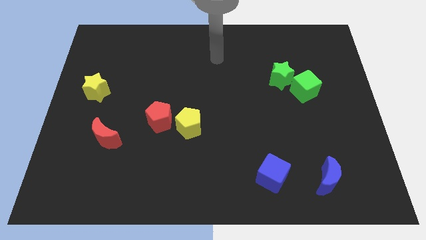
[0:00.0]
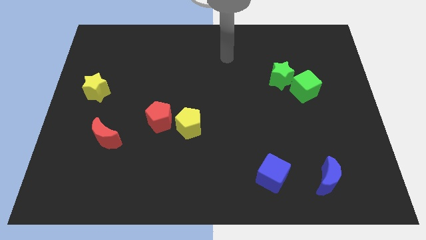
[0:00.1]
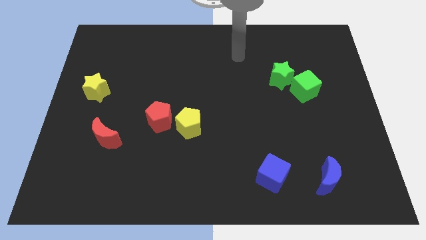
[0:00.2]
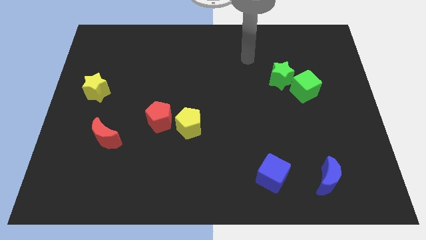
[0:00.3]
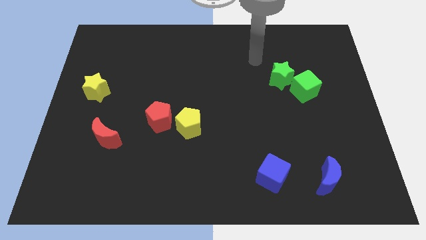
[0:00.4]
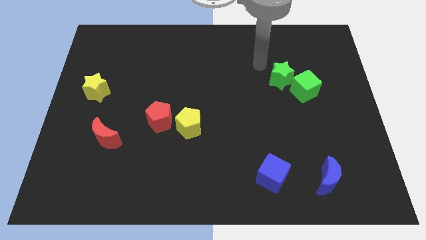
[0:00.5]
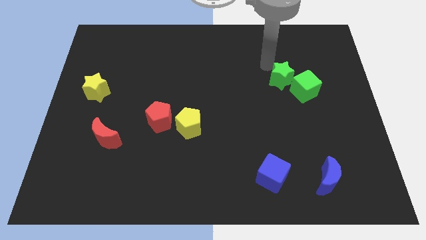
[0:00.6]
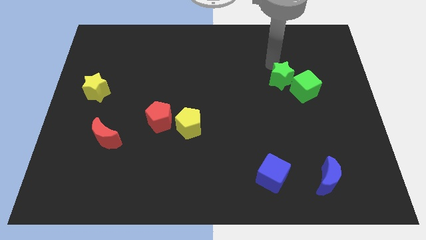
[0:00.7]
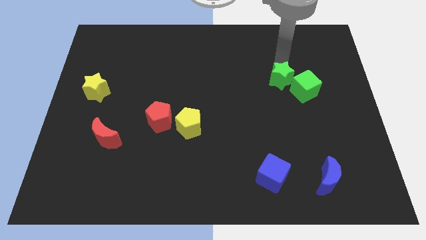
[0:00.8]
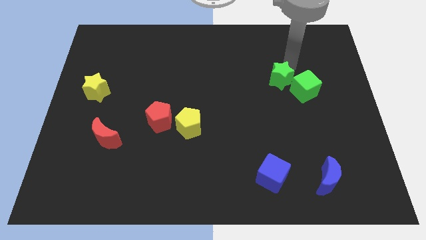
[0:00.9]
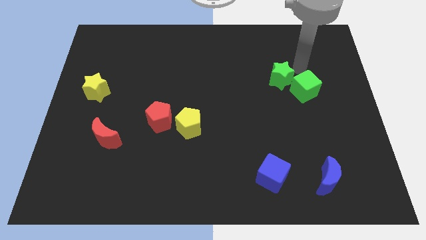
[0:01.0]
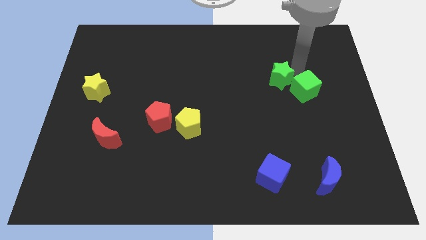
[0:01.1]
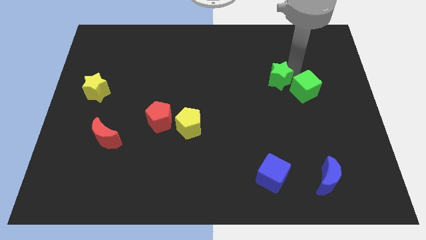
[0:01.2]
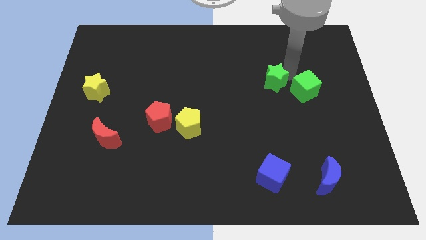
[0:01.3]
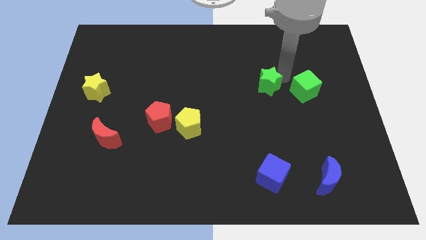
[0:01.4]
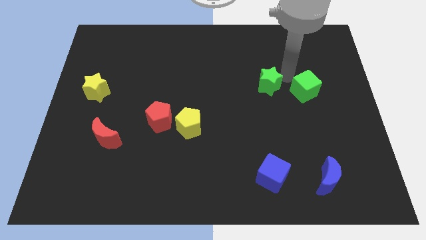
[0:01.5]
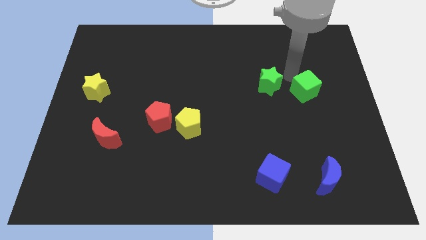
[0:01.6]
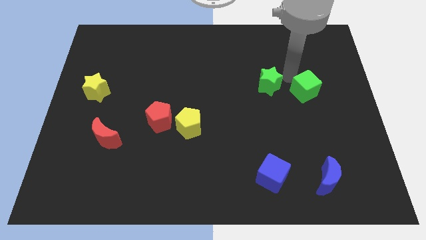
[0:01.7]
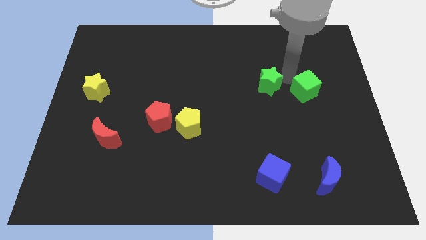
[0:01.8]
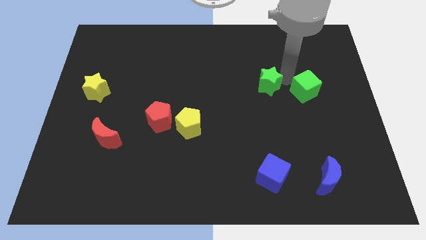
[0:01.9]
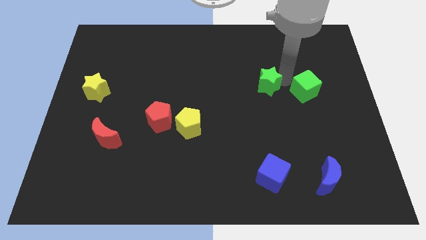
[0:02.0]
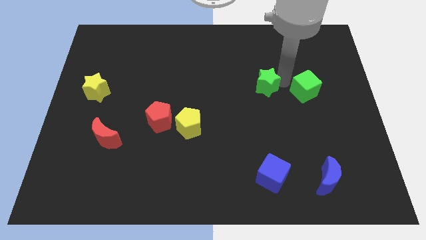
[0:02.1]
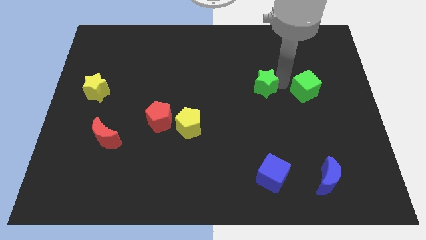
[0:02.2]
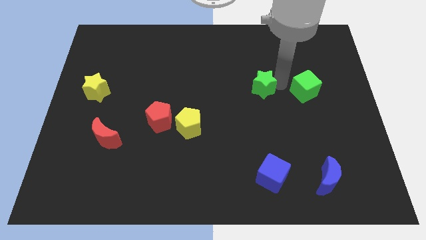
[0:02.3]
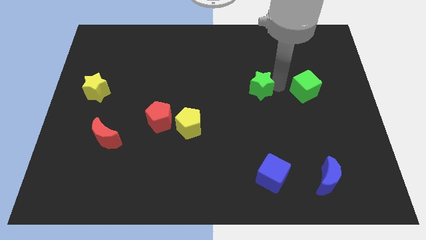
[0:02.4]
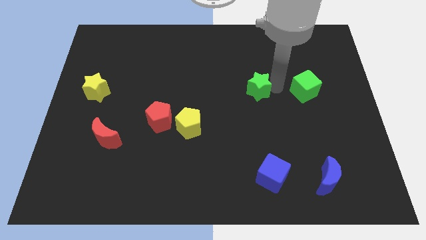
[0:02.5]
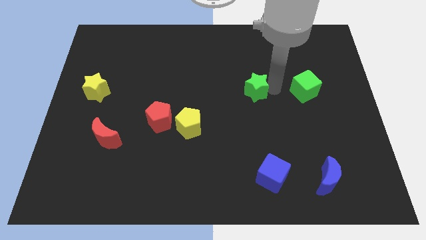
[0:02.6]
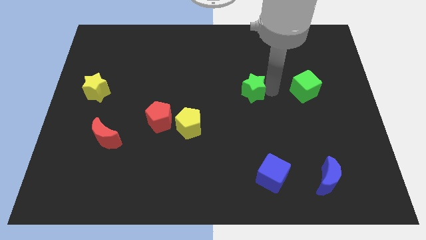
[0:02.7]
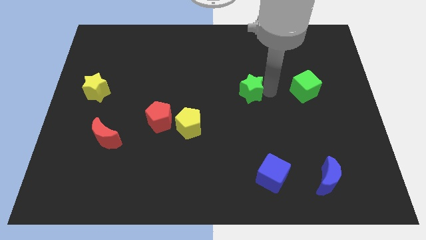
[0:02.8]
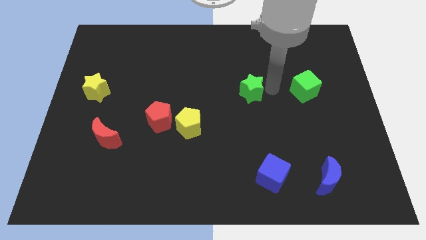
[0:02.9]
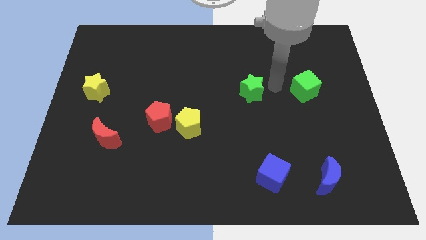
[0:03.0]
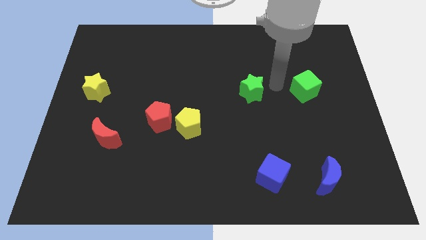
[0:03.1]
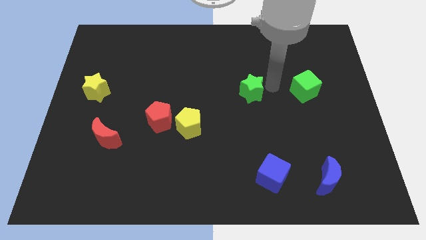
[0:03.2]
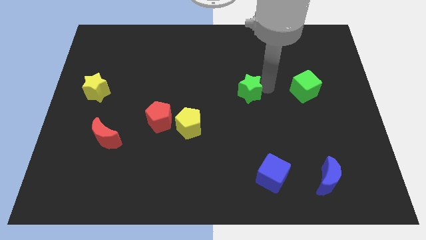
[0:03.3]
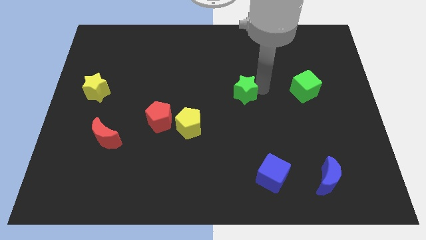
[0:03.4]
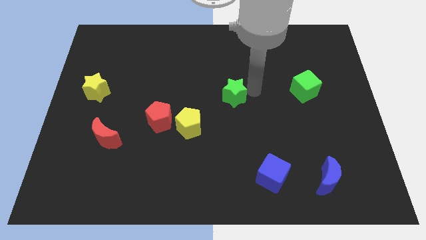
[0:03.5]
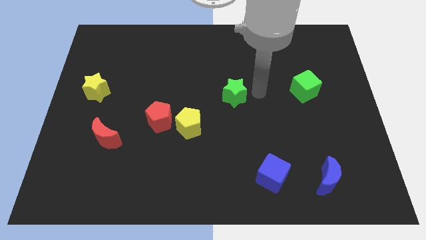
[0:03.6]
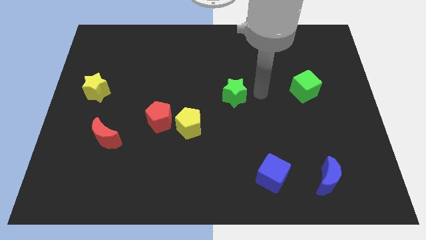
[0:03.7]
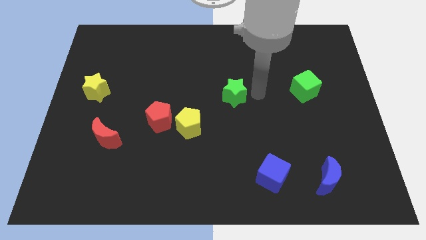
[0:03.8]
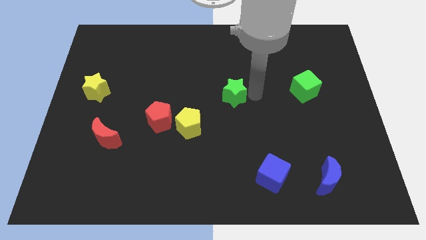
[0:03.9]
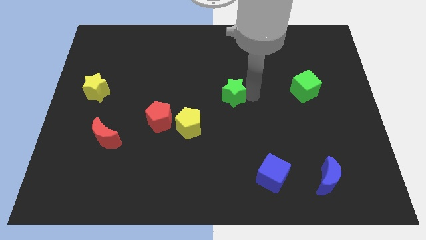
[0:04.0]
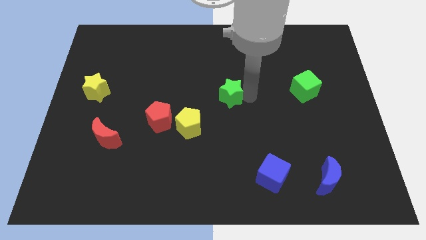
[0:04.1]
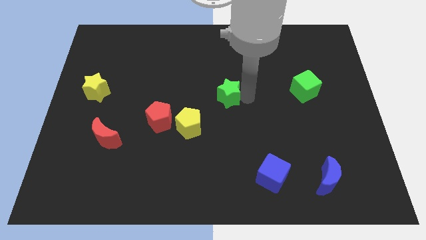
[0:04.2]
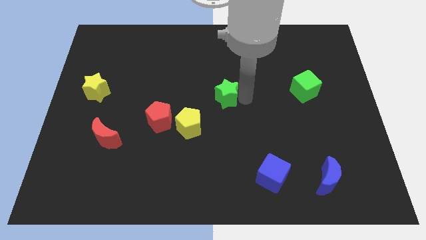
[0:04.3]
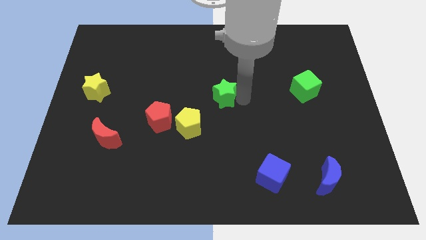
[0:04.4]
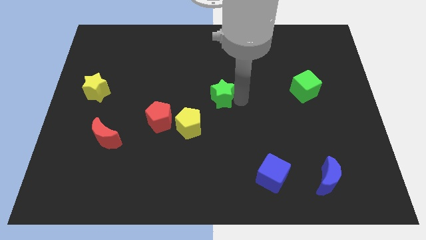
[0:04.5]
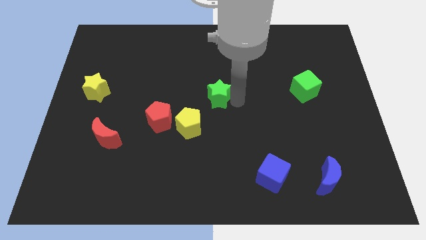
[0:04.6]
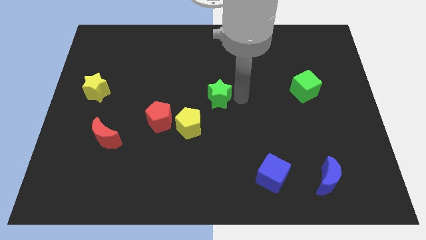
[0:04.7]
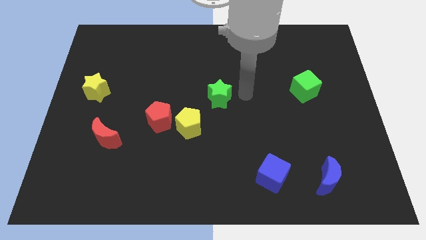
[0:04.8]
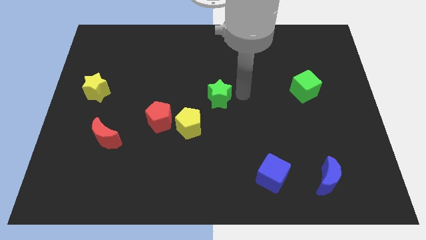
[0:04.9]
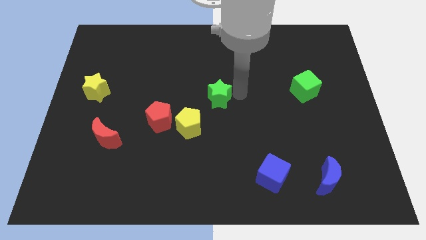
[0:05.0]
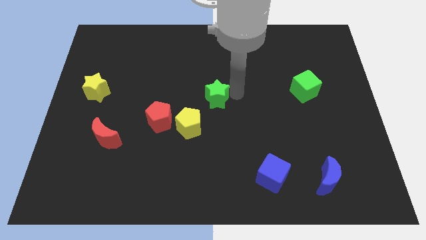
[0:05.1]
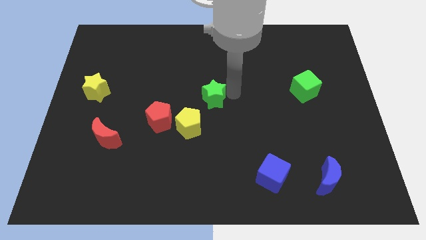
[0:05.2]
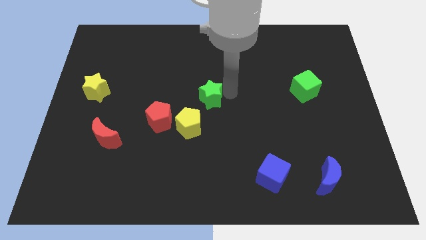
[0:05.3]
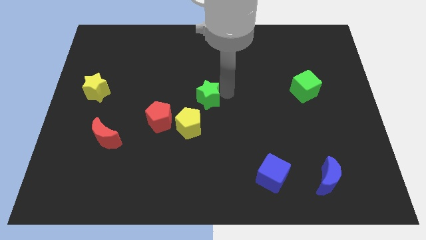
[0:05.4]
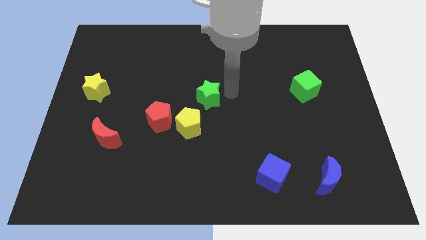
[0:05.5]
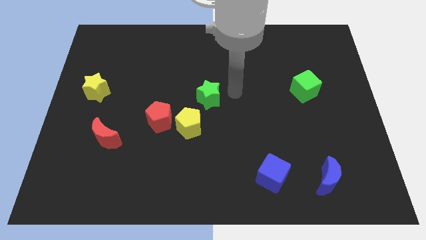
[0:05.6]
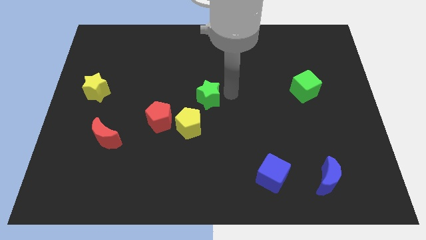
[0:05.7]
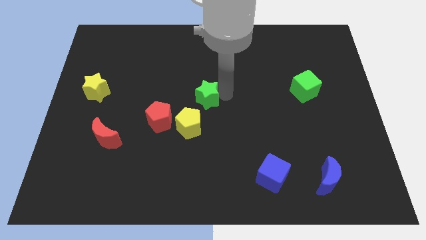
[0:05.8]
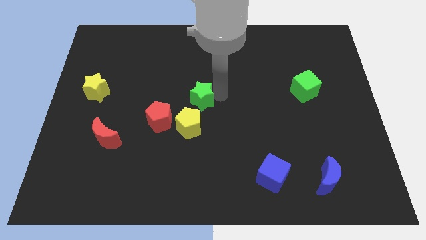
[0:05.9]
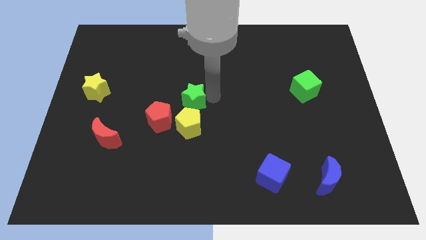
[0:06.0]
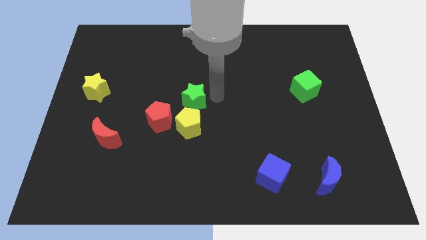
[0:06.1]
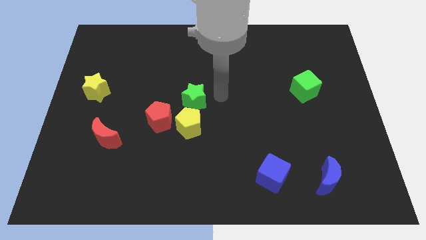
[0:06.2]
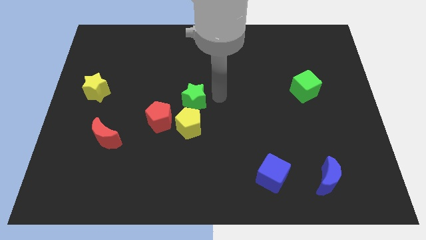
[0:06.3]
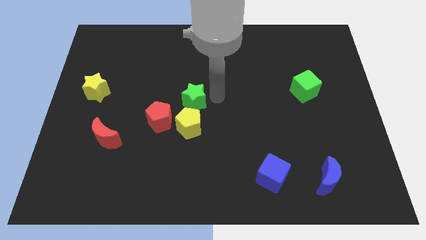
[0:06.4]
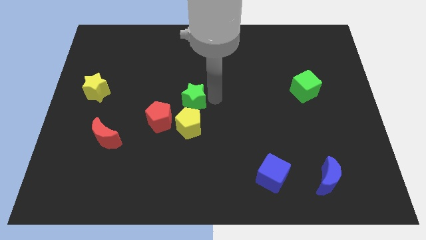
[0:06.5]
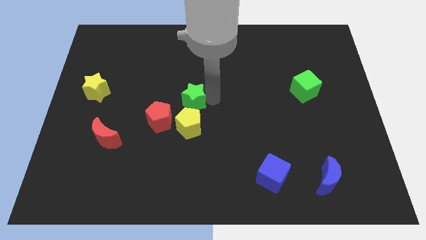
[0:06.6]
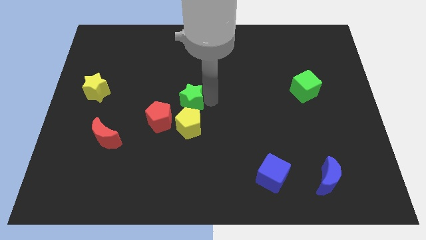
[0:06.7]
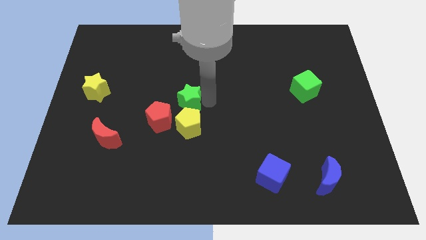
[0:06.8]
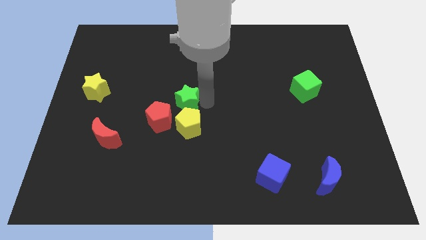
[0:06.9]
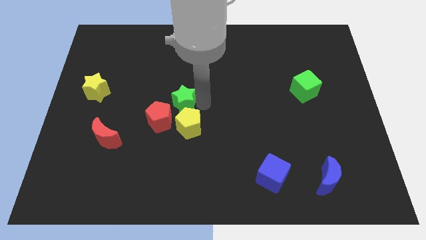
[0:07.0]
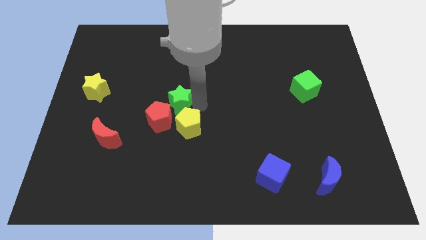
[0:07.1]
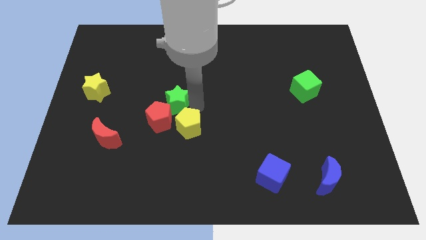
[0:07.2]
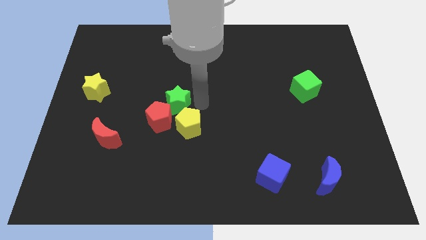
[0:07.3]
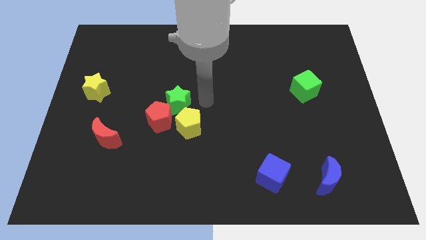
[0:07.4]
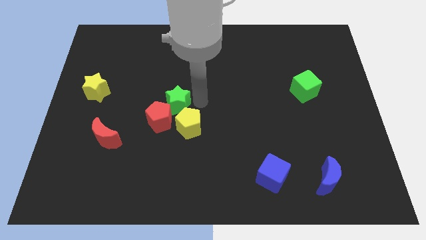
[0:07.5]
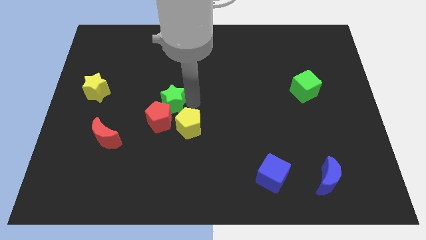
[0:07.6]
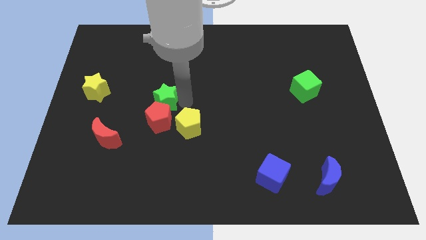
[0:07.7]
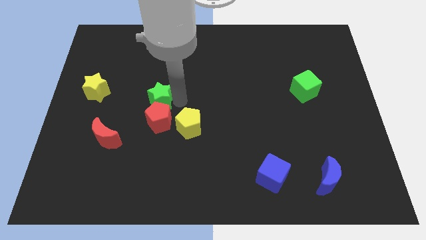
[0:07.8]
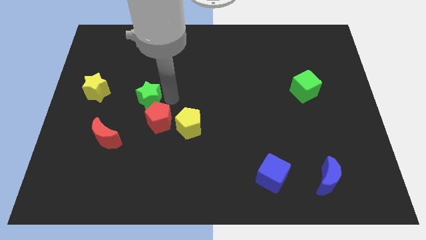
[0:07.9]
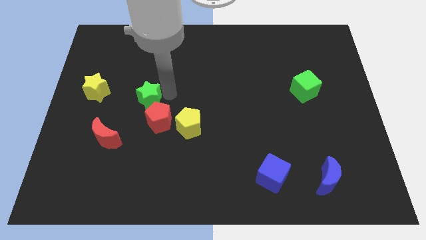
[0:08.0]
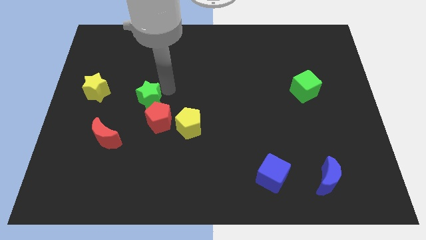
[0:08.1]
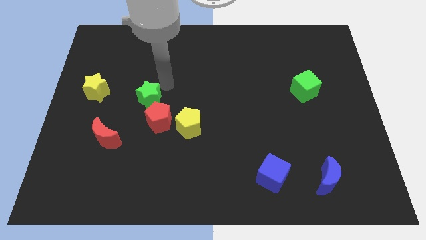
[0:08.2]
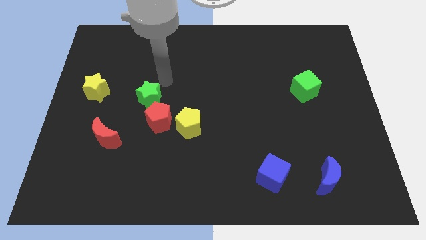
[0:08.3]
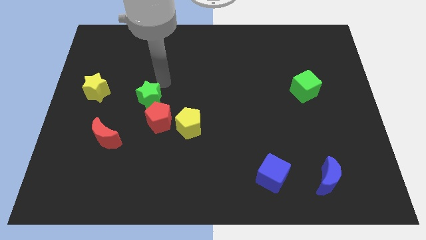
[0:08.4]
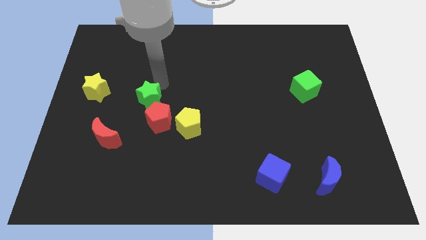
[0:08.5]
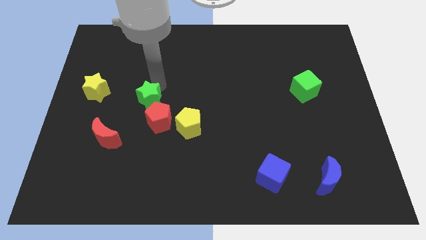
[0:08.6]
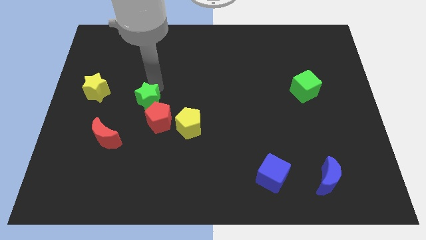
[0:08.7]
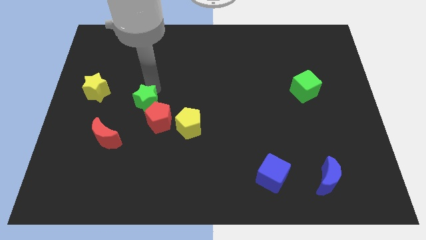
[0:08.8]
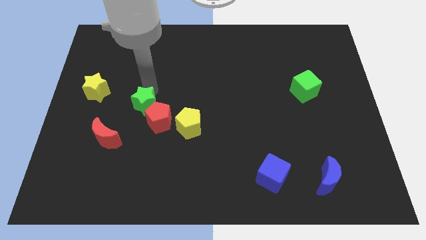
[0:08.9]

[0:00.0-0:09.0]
push the green star to the top right of the red moon
